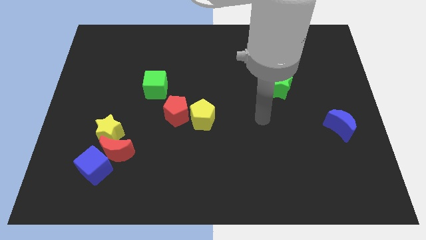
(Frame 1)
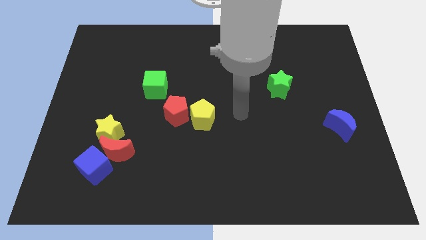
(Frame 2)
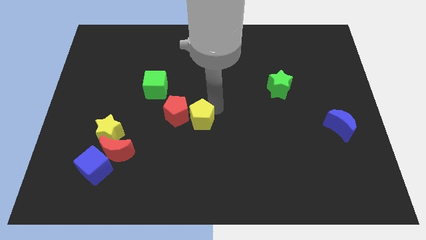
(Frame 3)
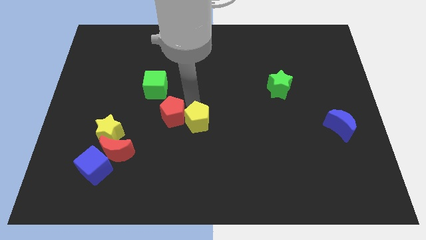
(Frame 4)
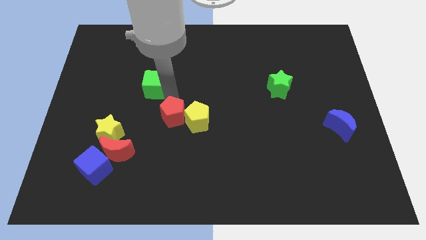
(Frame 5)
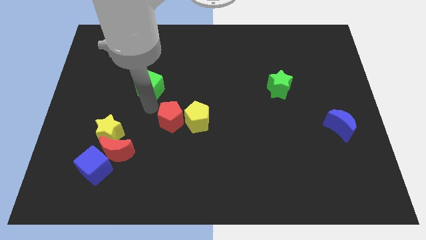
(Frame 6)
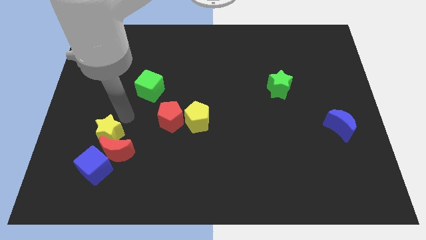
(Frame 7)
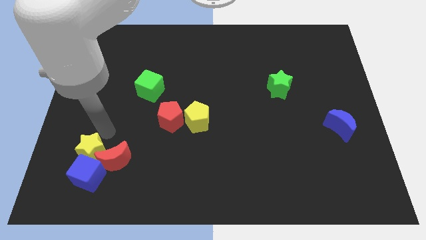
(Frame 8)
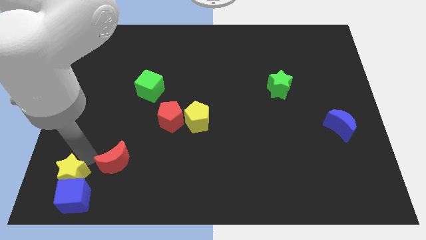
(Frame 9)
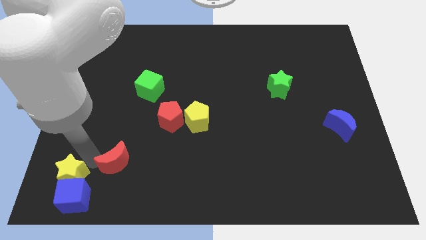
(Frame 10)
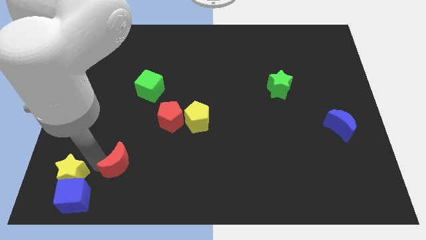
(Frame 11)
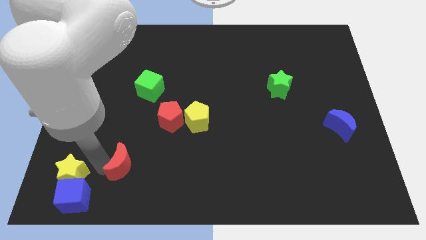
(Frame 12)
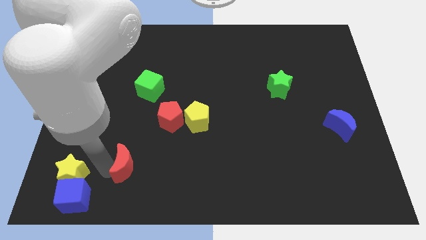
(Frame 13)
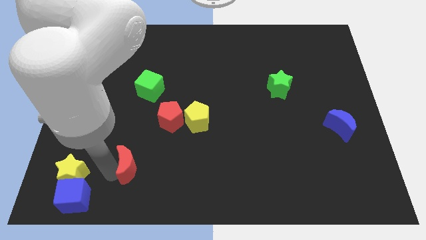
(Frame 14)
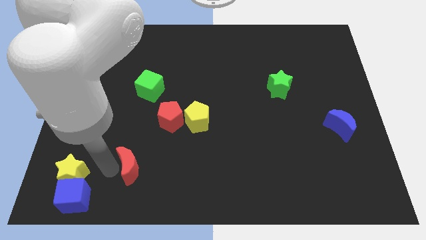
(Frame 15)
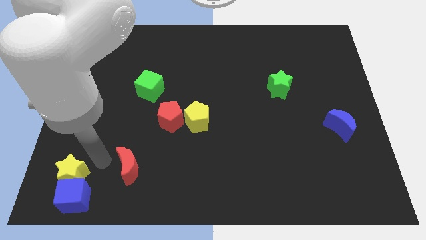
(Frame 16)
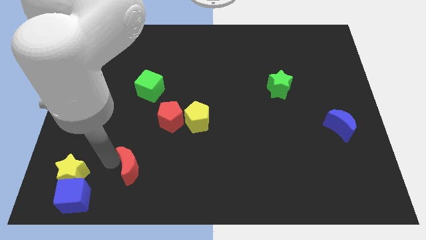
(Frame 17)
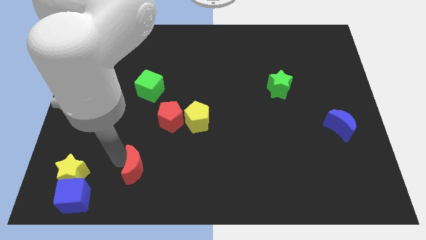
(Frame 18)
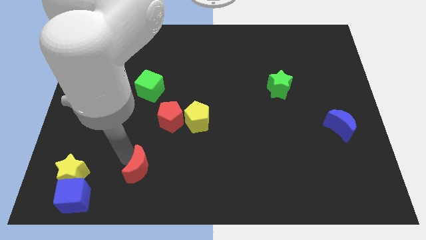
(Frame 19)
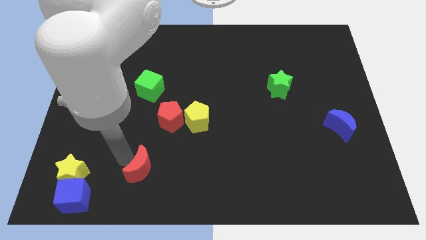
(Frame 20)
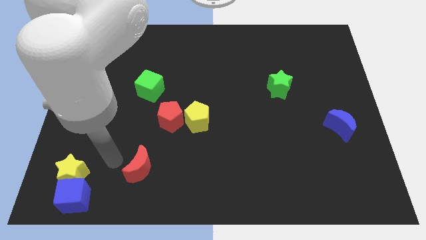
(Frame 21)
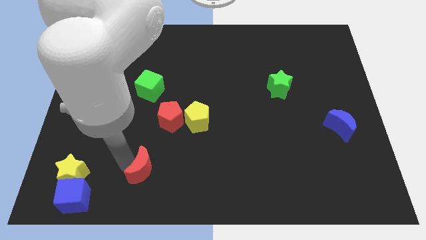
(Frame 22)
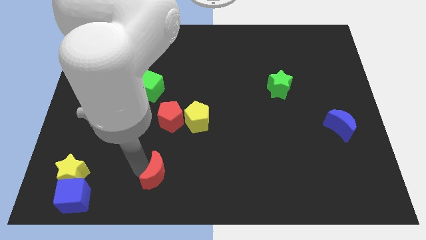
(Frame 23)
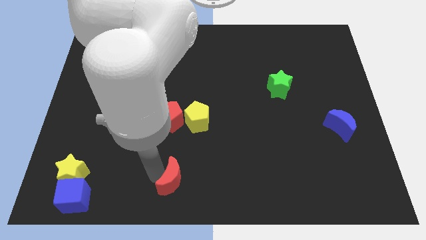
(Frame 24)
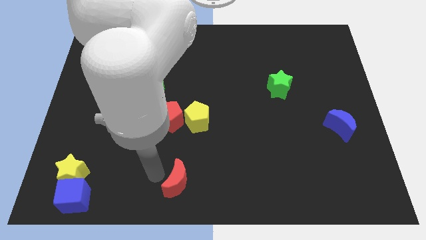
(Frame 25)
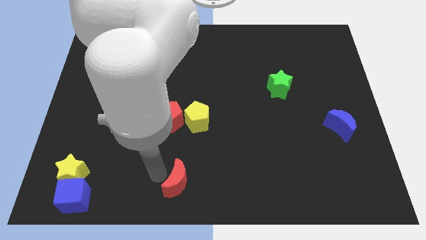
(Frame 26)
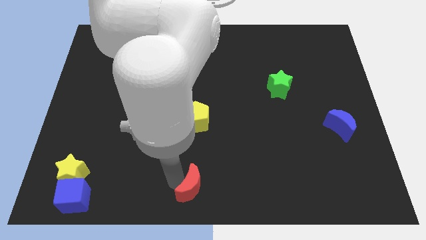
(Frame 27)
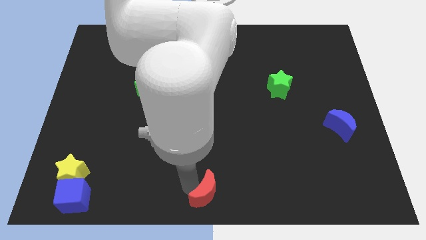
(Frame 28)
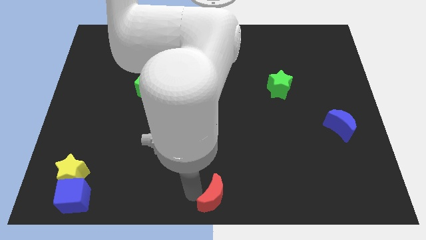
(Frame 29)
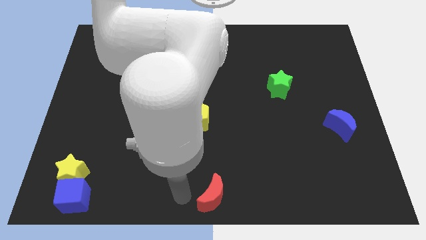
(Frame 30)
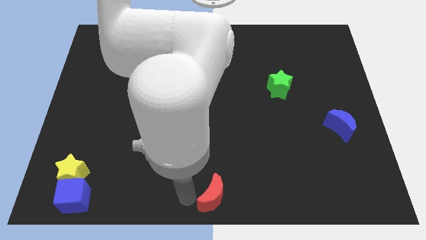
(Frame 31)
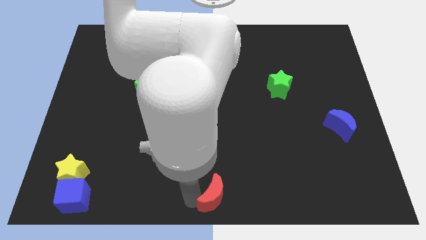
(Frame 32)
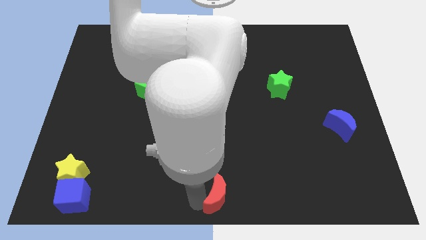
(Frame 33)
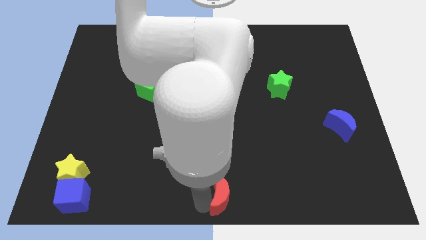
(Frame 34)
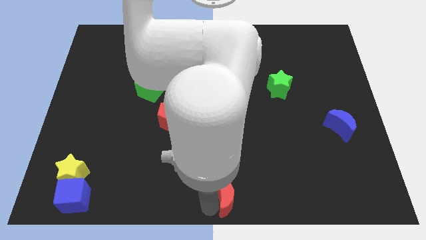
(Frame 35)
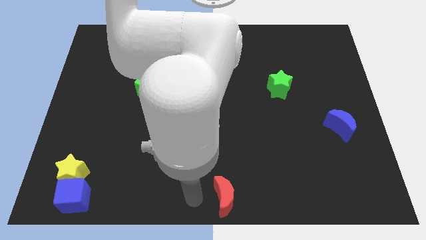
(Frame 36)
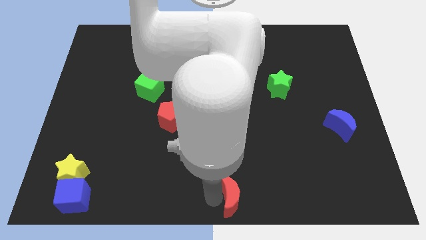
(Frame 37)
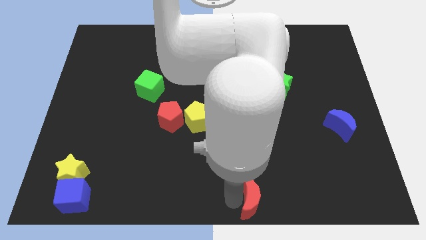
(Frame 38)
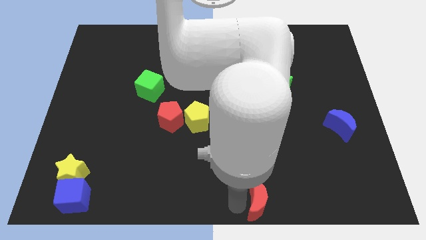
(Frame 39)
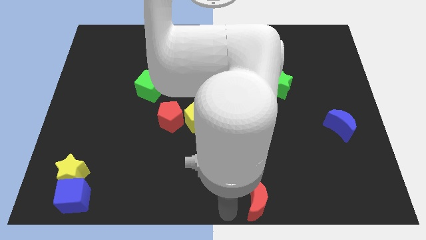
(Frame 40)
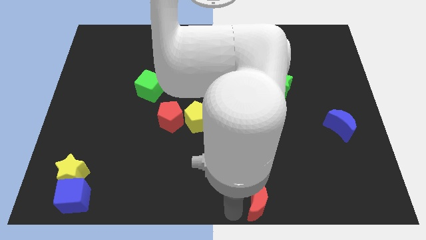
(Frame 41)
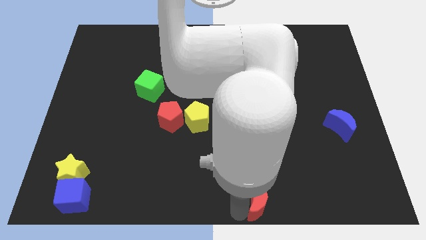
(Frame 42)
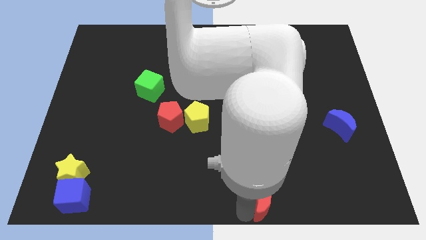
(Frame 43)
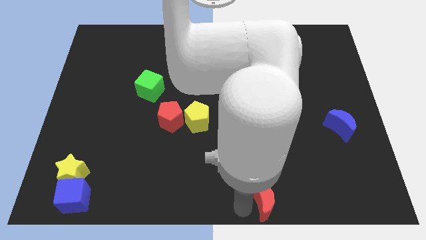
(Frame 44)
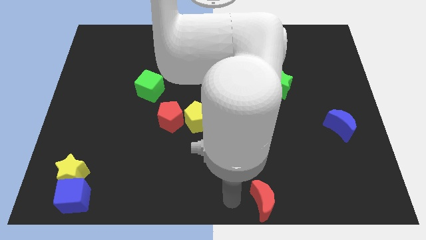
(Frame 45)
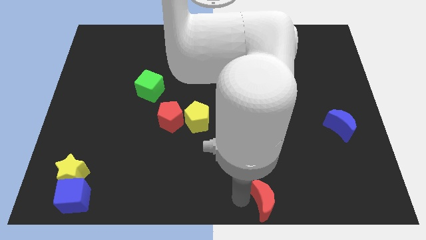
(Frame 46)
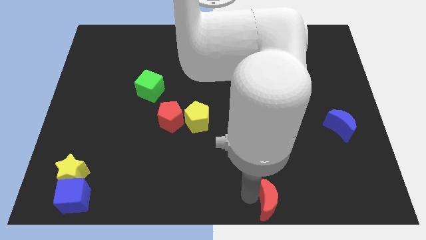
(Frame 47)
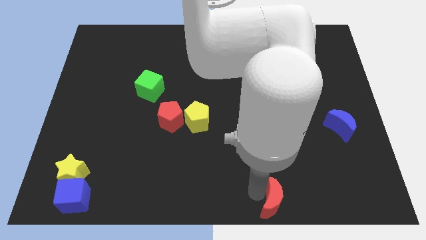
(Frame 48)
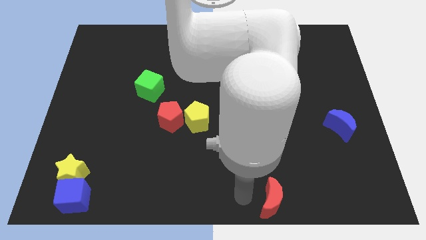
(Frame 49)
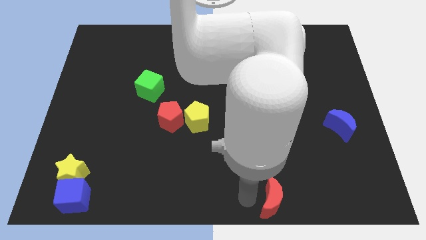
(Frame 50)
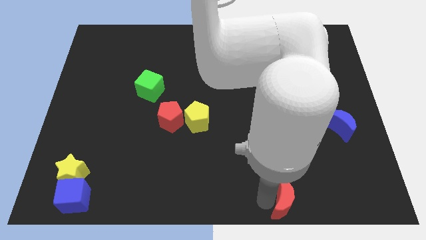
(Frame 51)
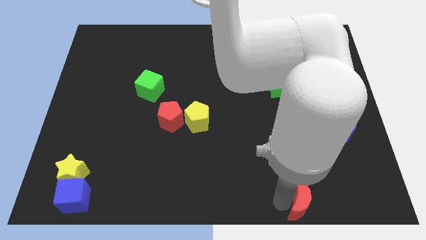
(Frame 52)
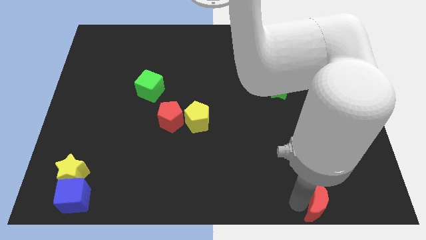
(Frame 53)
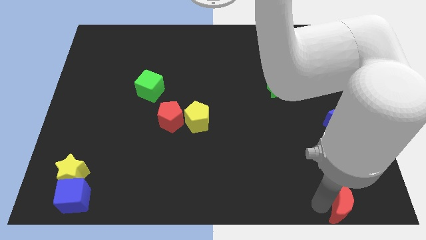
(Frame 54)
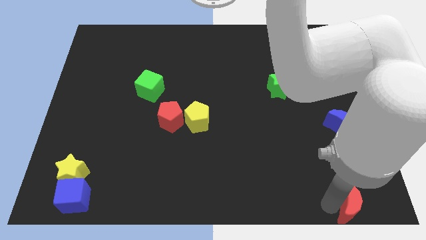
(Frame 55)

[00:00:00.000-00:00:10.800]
slide the red moon to the bottom right corner

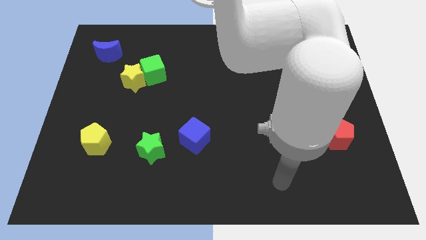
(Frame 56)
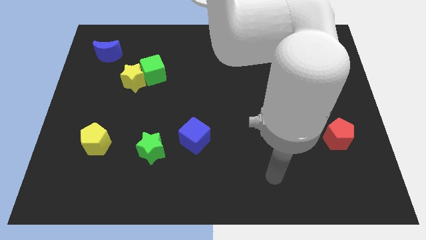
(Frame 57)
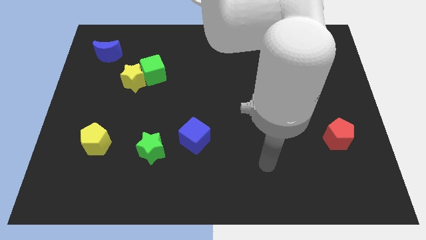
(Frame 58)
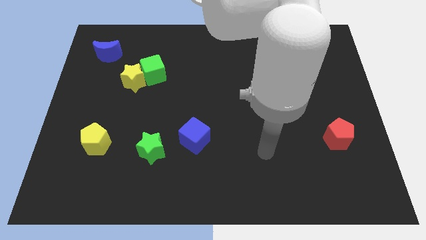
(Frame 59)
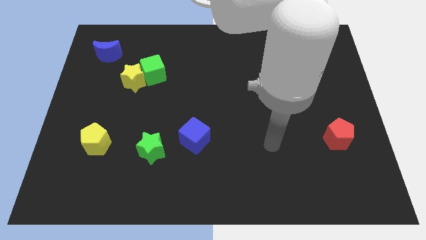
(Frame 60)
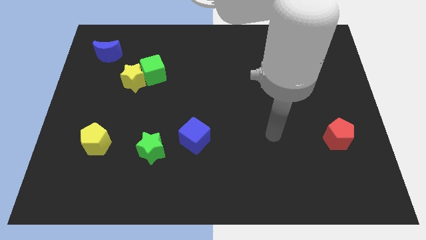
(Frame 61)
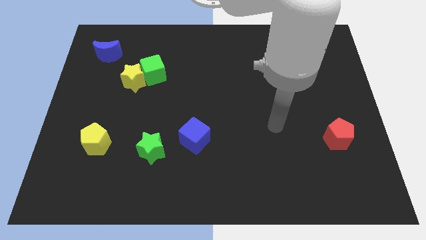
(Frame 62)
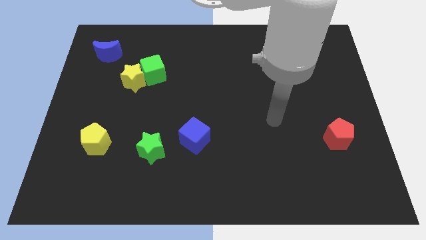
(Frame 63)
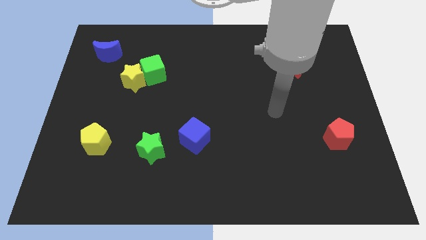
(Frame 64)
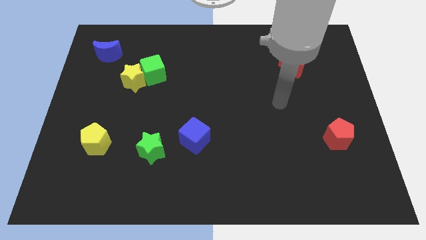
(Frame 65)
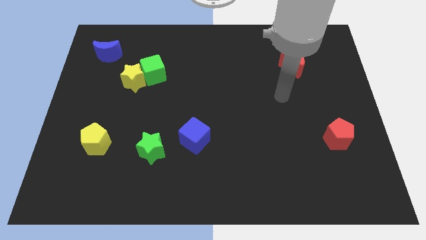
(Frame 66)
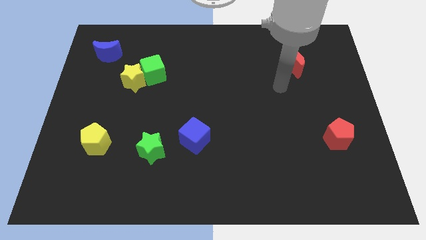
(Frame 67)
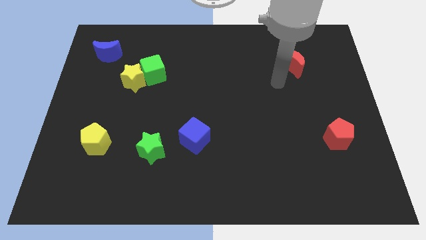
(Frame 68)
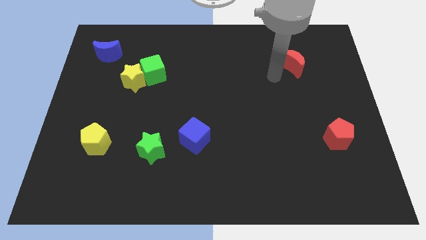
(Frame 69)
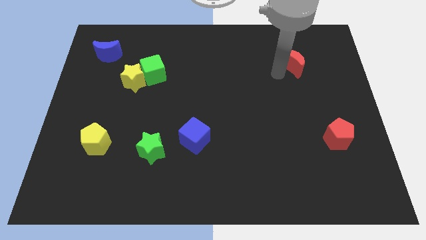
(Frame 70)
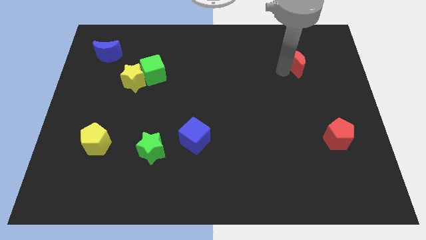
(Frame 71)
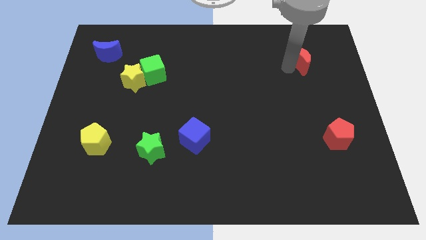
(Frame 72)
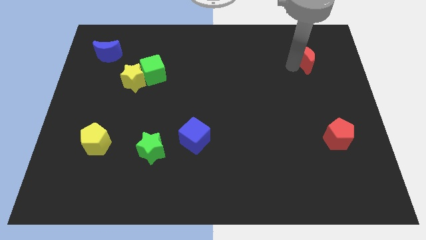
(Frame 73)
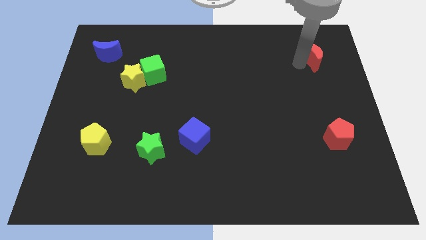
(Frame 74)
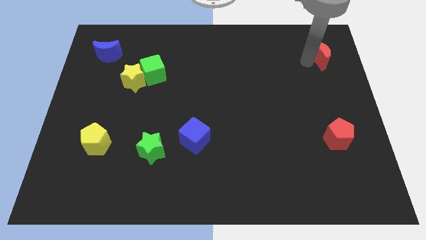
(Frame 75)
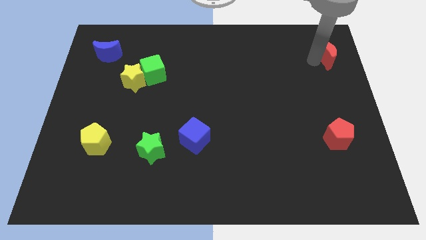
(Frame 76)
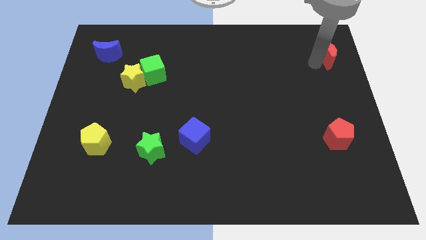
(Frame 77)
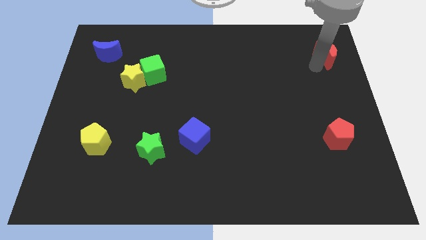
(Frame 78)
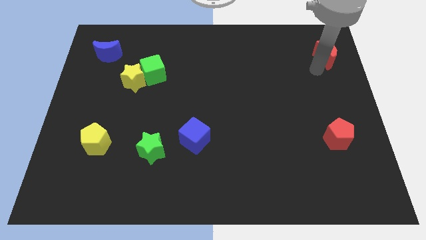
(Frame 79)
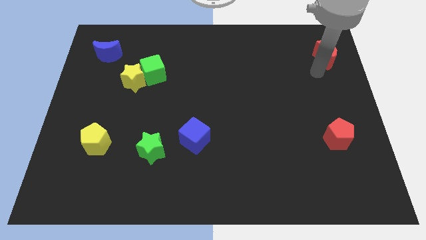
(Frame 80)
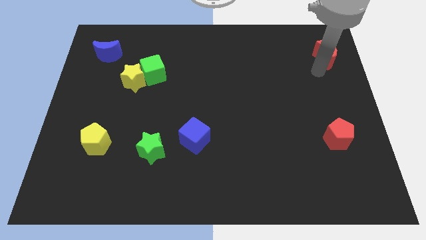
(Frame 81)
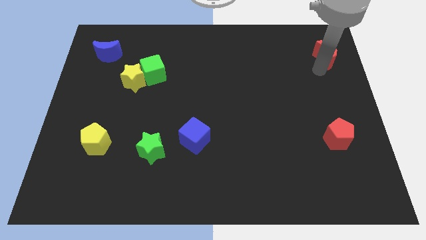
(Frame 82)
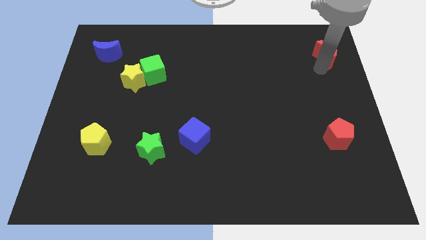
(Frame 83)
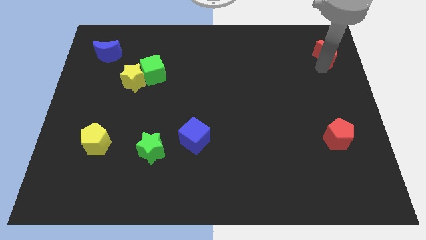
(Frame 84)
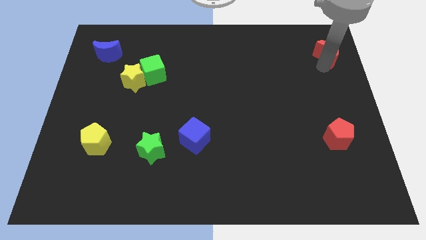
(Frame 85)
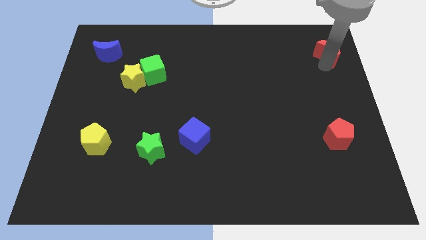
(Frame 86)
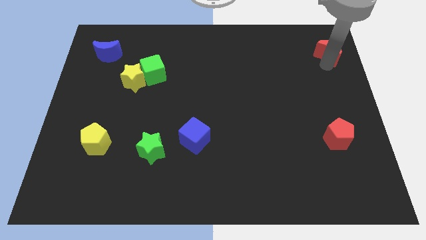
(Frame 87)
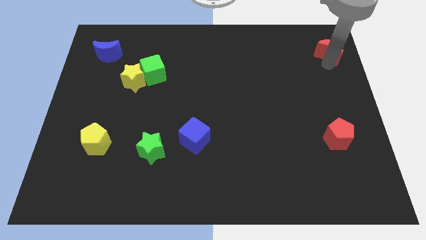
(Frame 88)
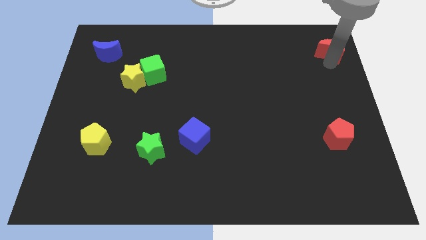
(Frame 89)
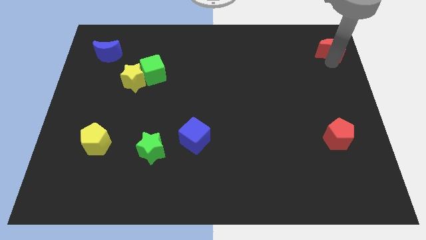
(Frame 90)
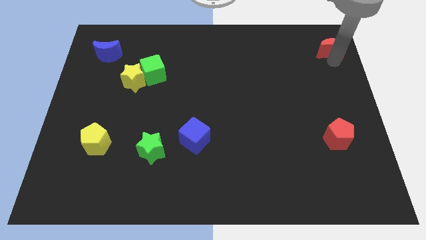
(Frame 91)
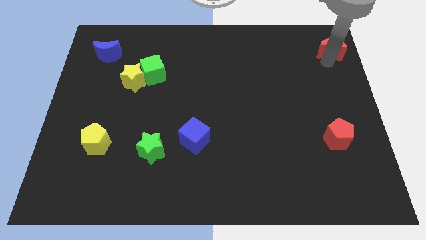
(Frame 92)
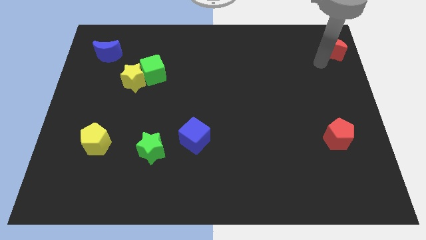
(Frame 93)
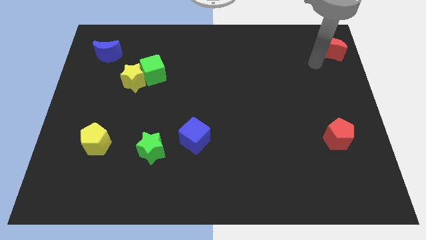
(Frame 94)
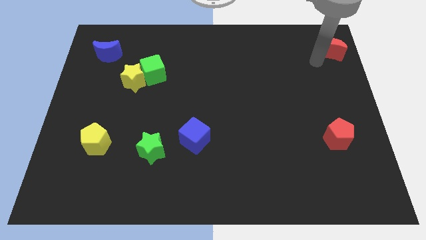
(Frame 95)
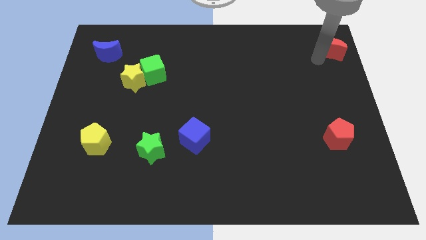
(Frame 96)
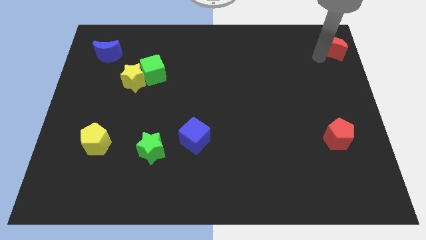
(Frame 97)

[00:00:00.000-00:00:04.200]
slide the red moon to the top right of the board
